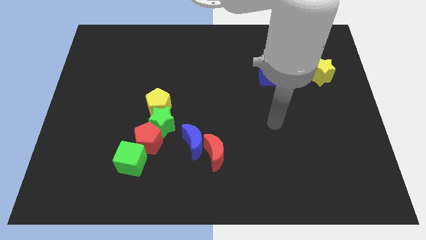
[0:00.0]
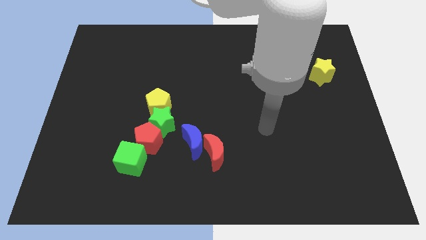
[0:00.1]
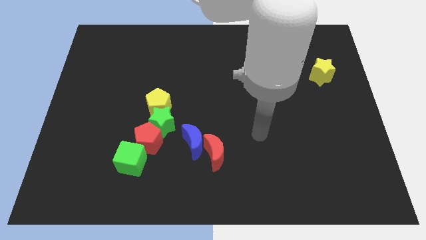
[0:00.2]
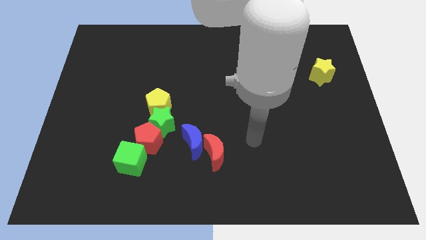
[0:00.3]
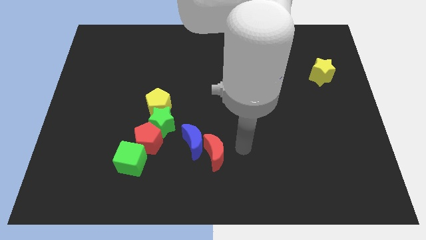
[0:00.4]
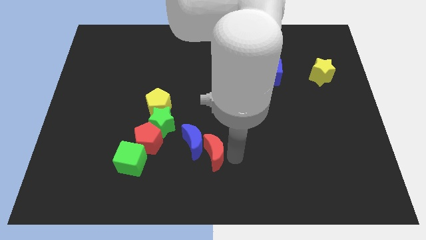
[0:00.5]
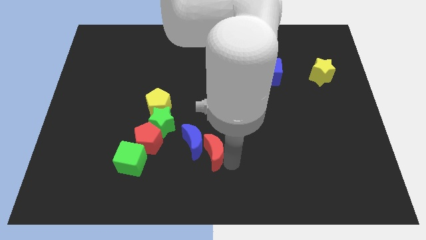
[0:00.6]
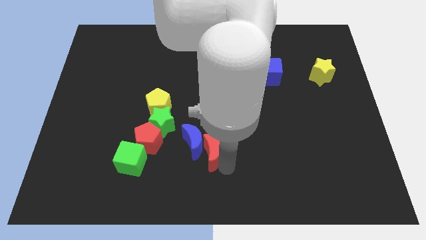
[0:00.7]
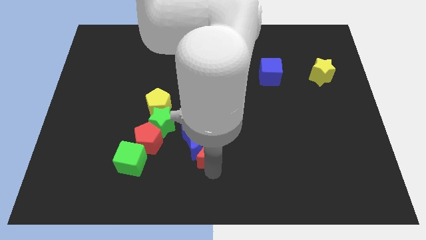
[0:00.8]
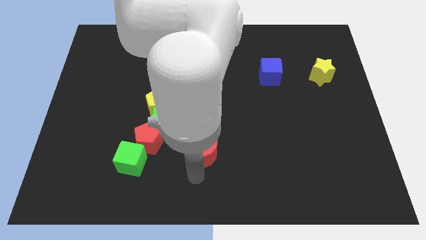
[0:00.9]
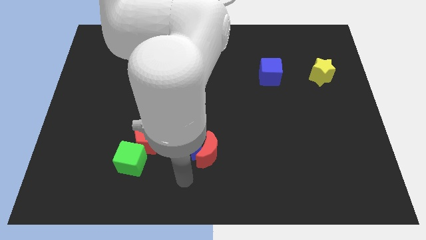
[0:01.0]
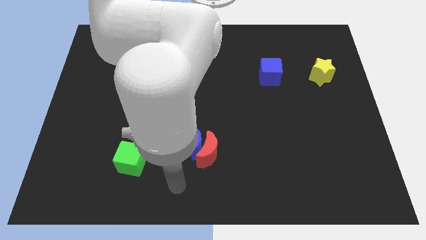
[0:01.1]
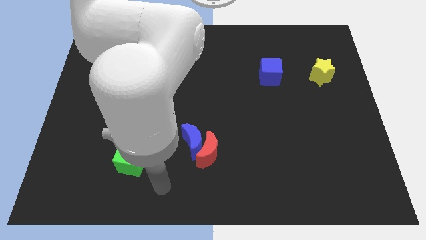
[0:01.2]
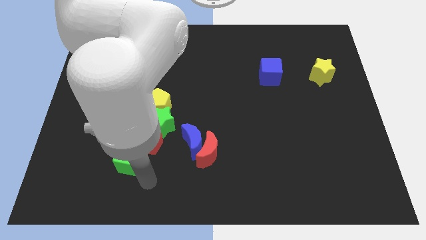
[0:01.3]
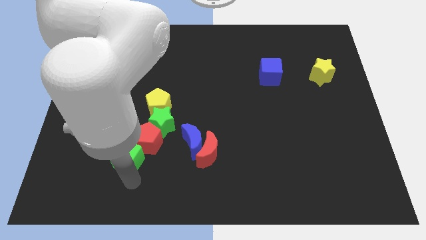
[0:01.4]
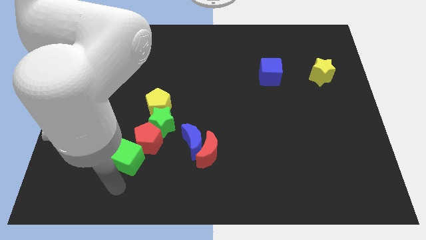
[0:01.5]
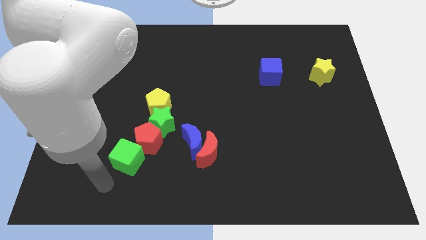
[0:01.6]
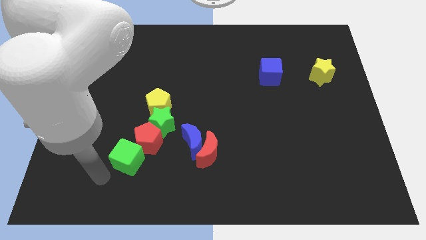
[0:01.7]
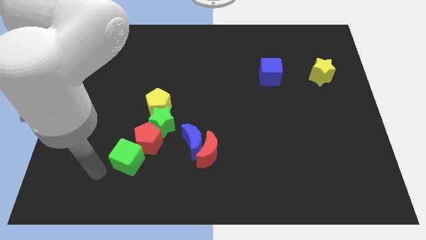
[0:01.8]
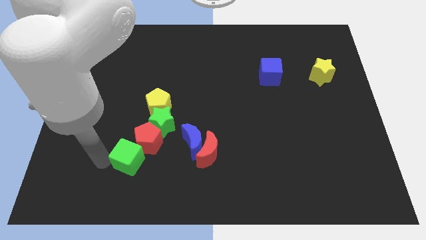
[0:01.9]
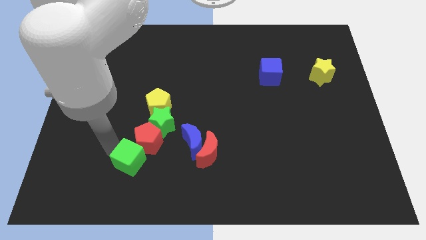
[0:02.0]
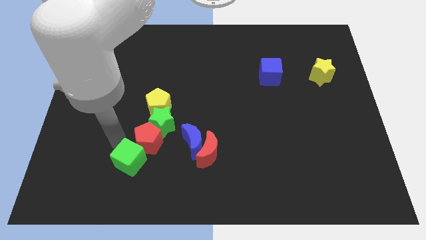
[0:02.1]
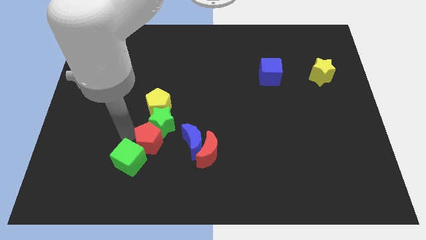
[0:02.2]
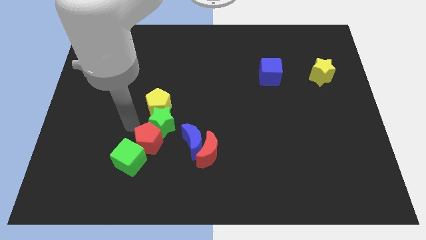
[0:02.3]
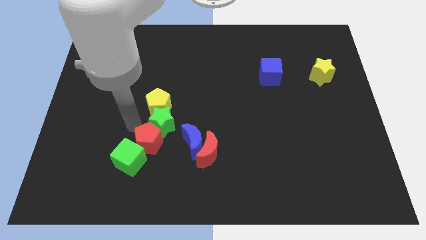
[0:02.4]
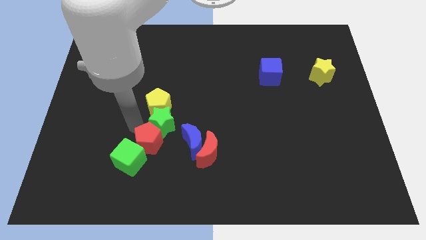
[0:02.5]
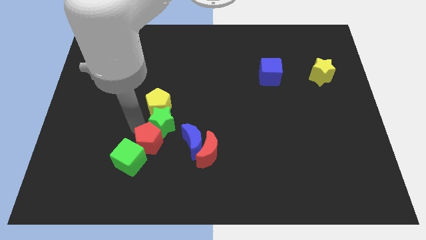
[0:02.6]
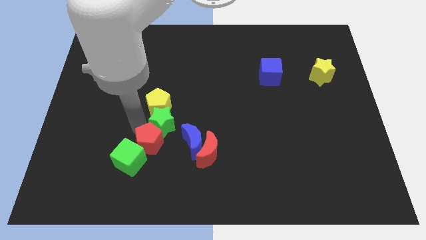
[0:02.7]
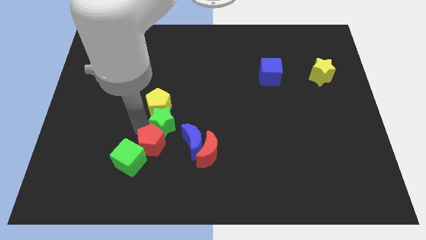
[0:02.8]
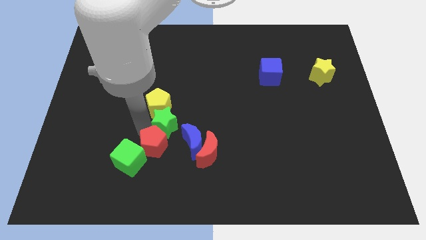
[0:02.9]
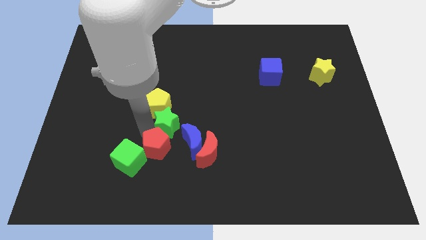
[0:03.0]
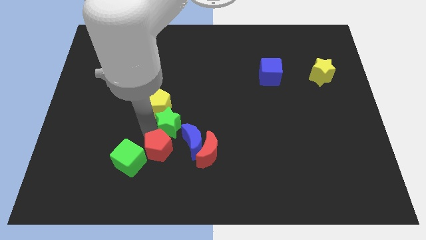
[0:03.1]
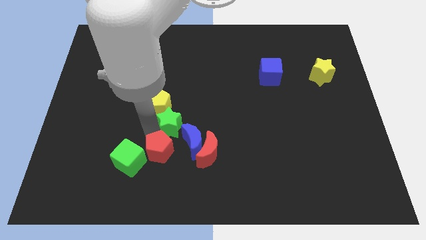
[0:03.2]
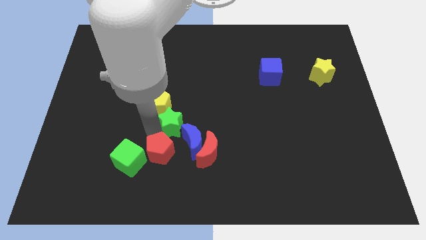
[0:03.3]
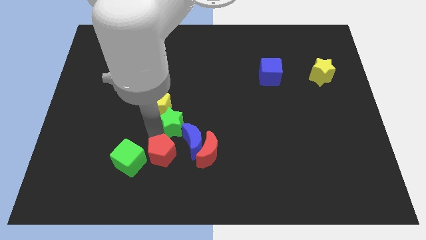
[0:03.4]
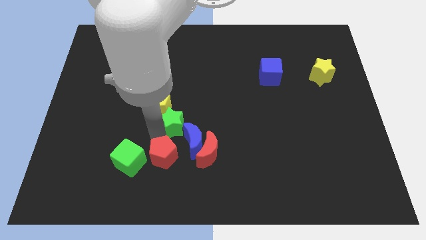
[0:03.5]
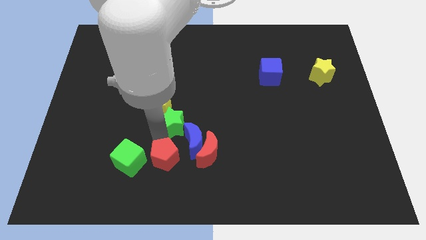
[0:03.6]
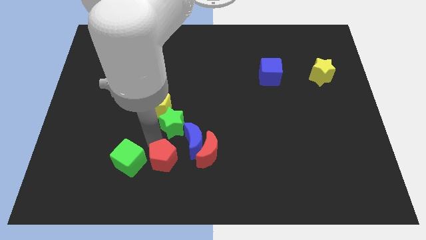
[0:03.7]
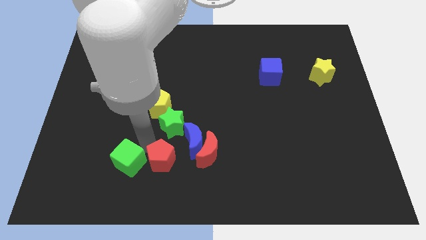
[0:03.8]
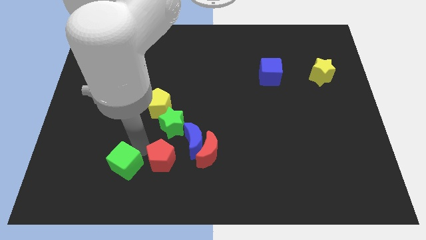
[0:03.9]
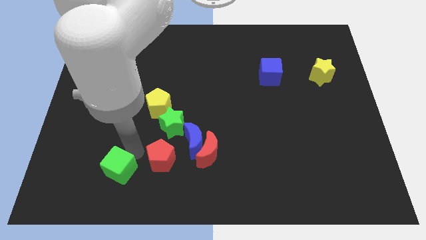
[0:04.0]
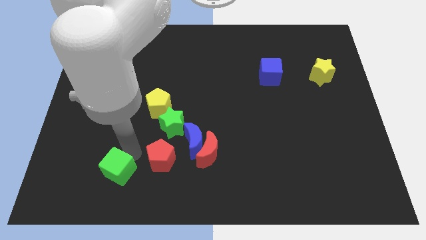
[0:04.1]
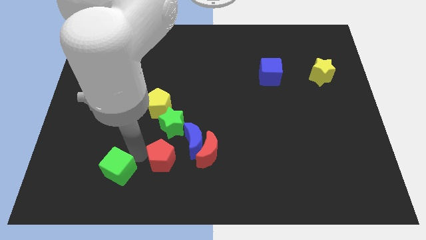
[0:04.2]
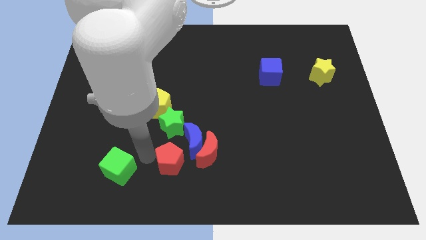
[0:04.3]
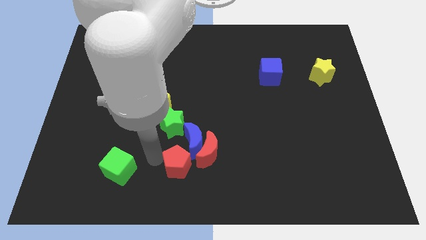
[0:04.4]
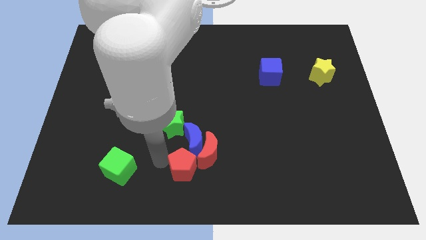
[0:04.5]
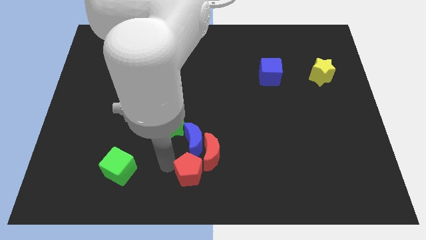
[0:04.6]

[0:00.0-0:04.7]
move the red pentagon close to the red moon

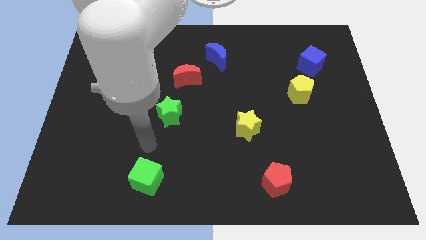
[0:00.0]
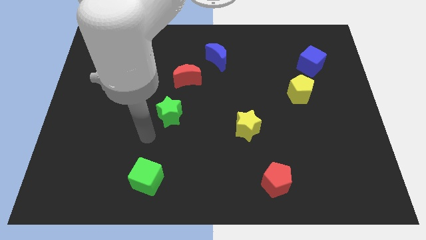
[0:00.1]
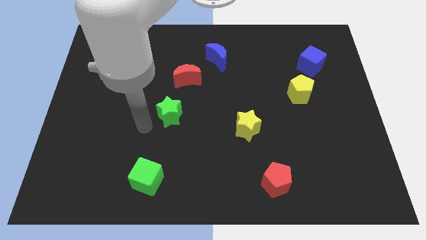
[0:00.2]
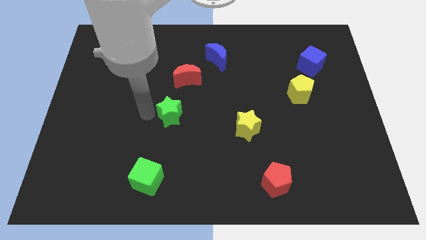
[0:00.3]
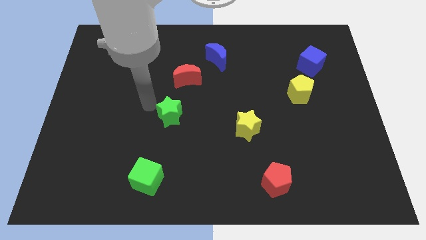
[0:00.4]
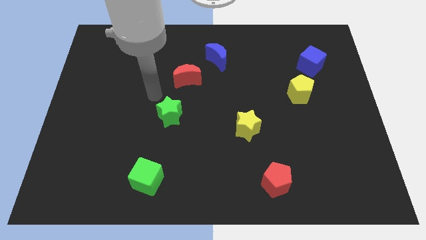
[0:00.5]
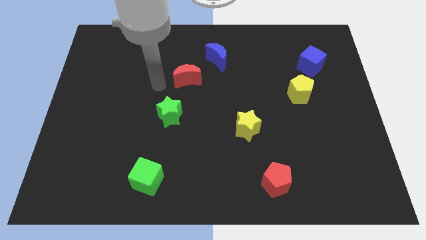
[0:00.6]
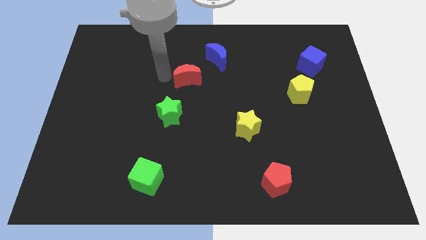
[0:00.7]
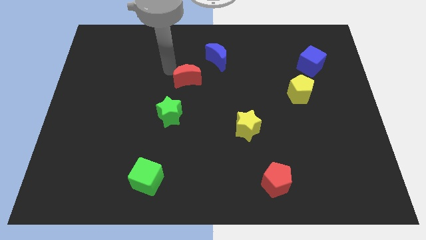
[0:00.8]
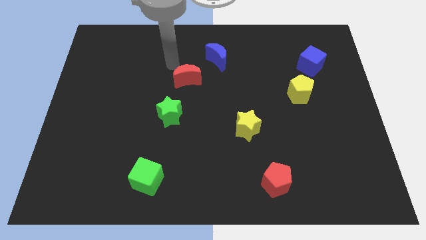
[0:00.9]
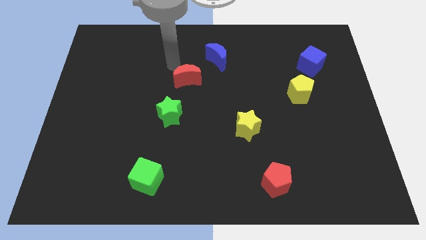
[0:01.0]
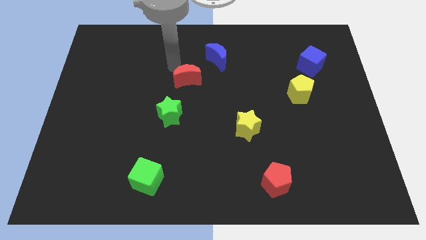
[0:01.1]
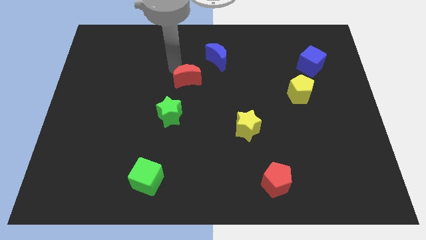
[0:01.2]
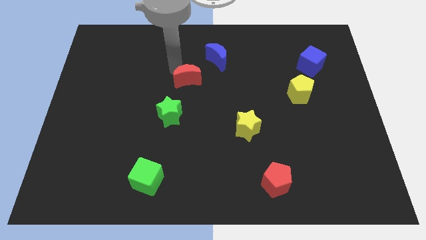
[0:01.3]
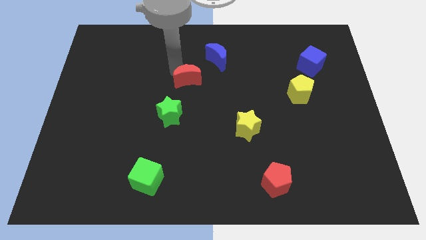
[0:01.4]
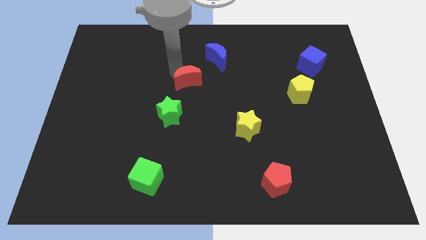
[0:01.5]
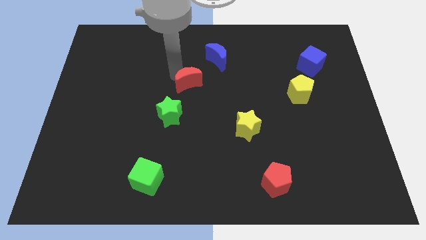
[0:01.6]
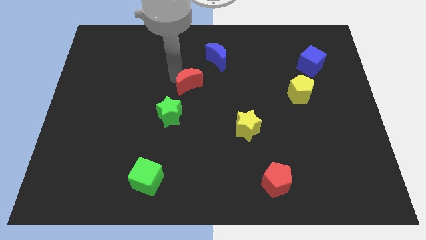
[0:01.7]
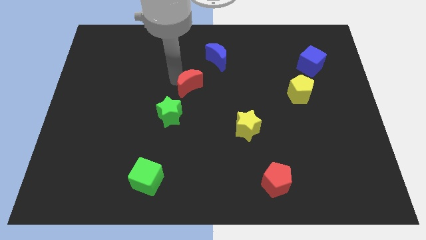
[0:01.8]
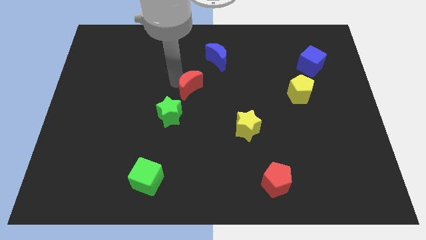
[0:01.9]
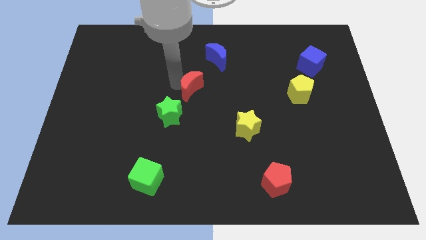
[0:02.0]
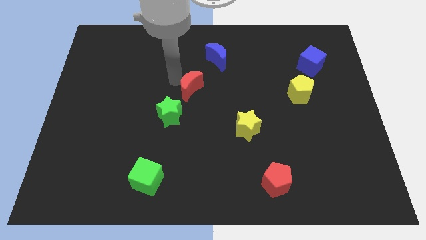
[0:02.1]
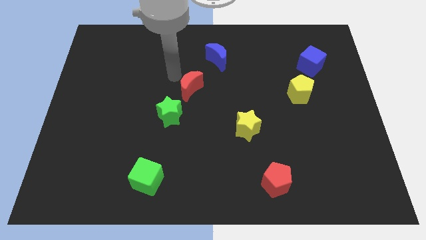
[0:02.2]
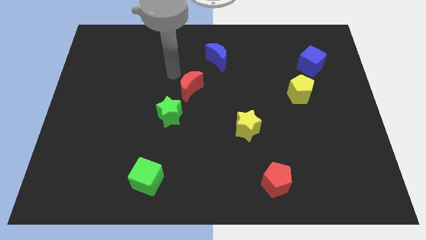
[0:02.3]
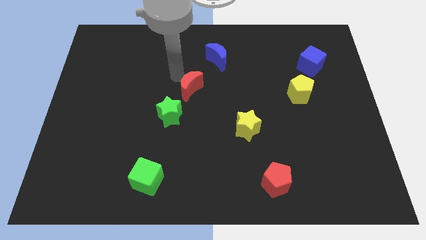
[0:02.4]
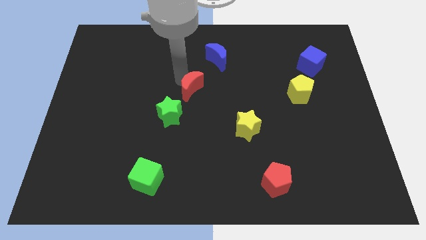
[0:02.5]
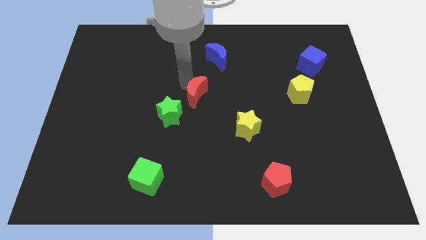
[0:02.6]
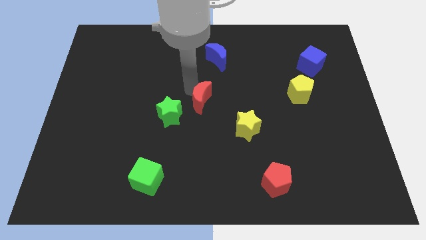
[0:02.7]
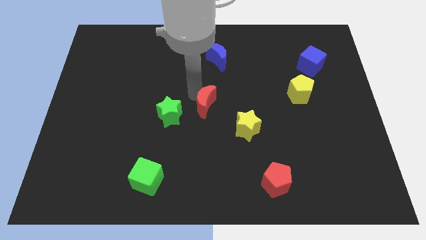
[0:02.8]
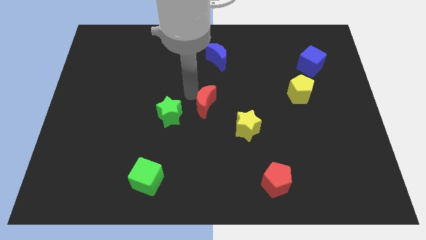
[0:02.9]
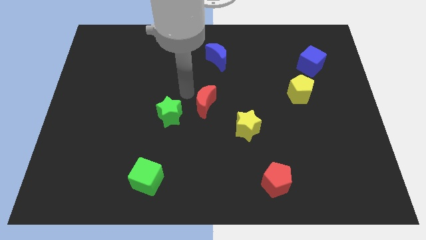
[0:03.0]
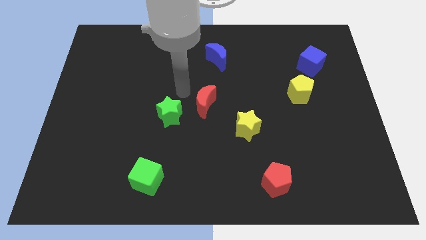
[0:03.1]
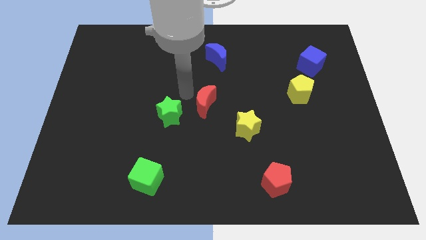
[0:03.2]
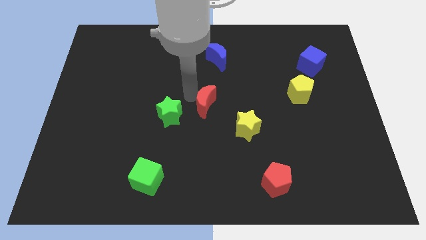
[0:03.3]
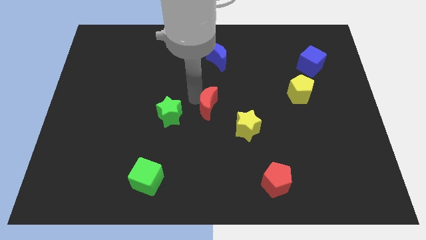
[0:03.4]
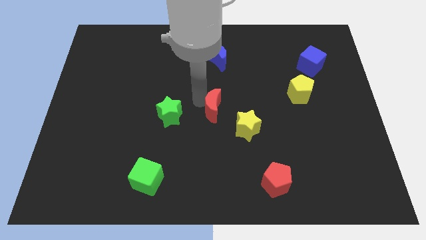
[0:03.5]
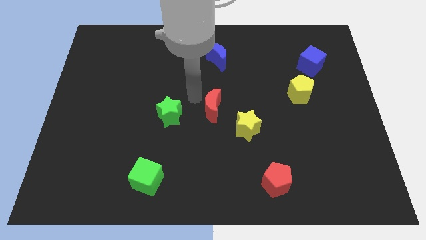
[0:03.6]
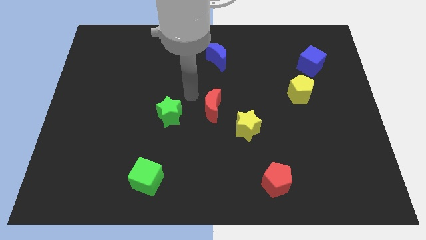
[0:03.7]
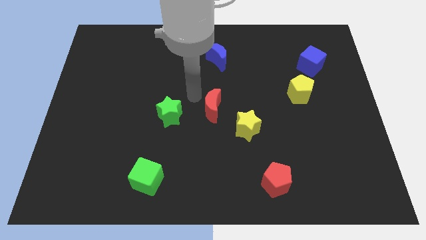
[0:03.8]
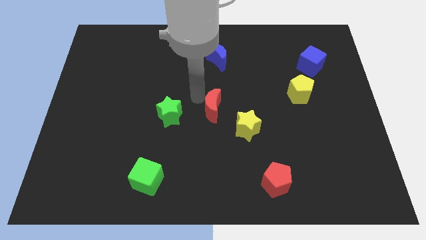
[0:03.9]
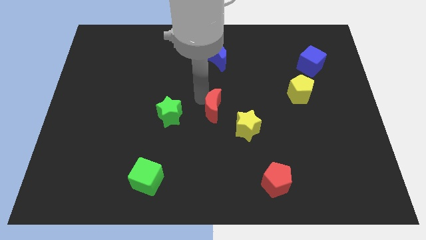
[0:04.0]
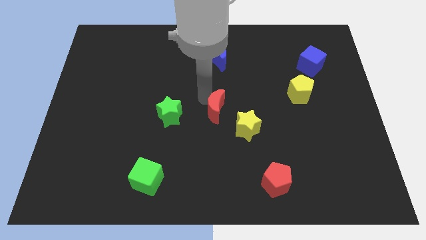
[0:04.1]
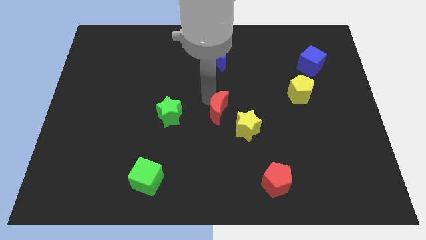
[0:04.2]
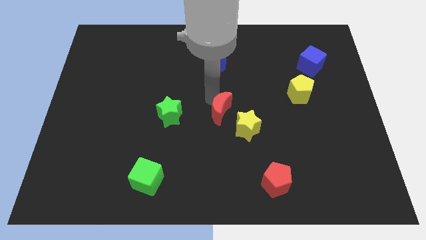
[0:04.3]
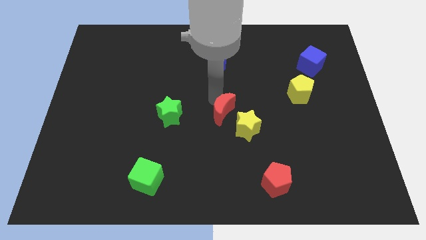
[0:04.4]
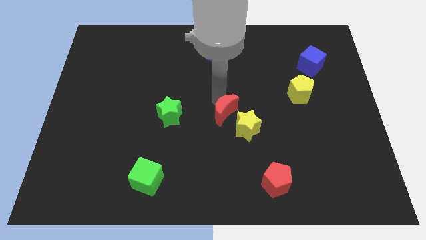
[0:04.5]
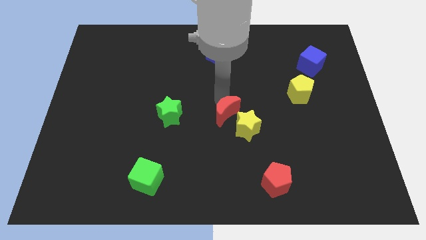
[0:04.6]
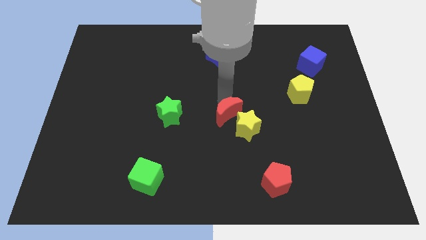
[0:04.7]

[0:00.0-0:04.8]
put the red moon towards the yellow star
